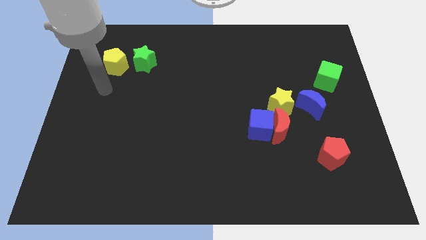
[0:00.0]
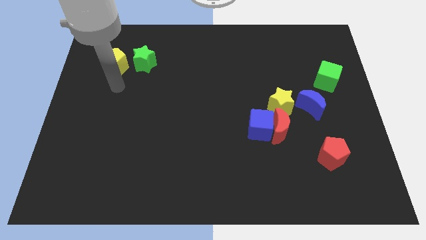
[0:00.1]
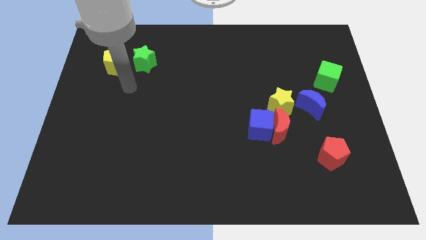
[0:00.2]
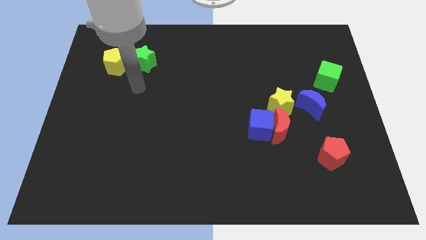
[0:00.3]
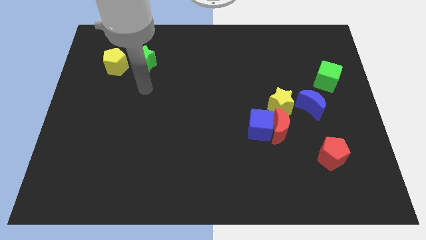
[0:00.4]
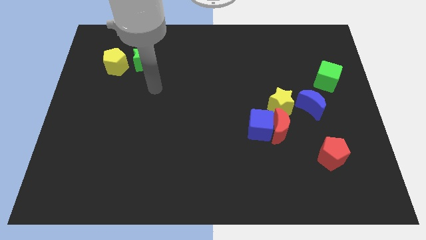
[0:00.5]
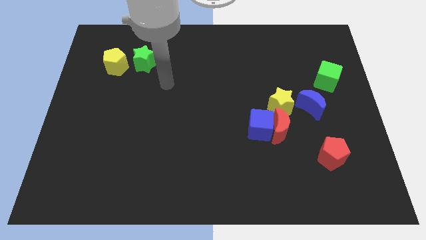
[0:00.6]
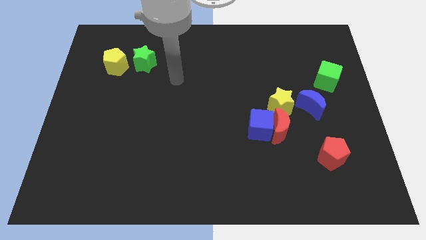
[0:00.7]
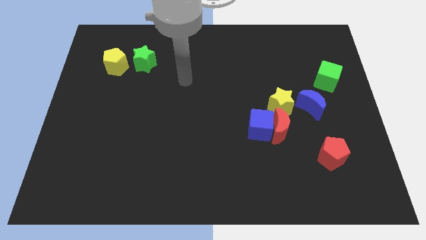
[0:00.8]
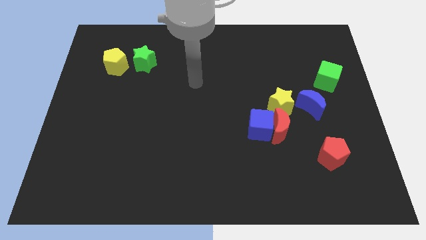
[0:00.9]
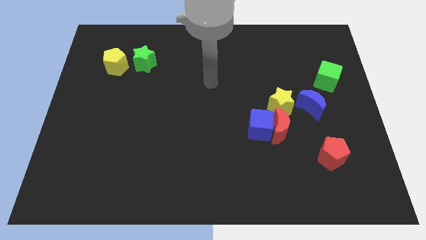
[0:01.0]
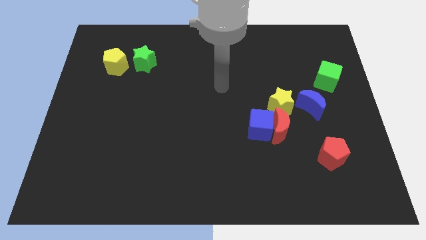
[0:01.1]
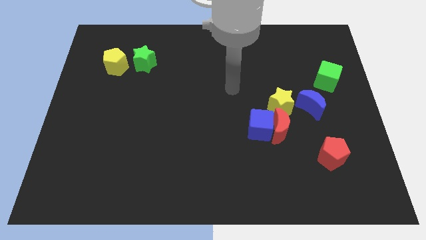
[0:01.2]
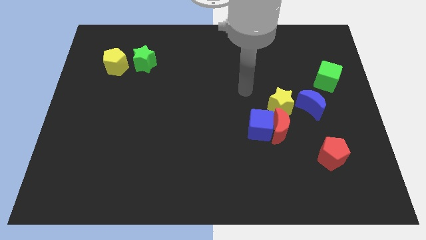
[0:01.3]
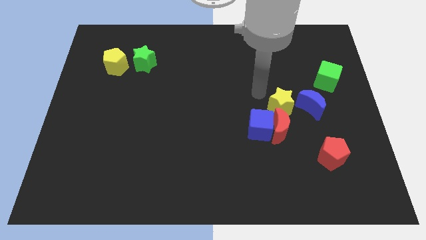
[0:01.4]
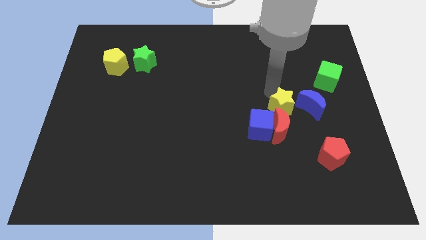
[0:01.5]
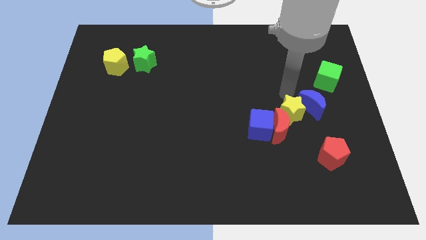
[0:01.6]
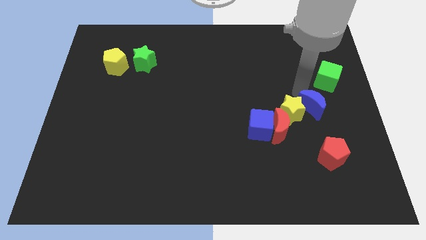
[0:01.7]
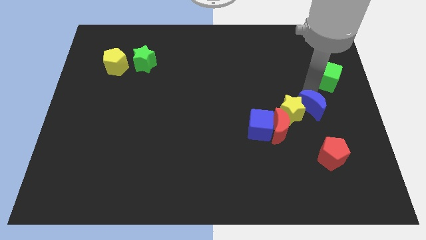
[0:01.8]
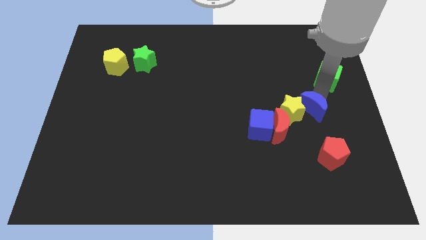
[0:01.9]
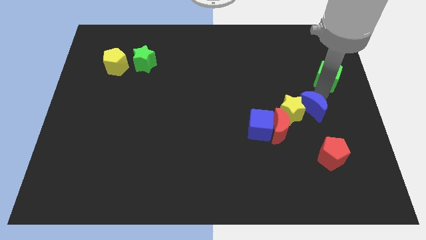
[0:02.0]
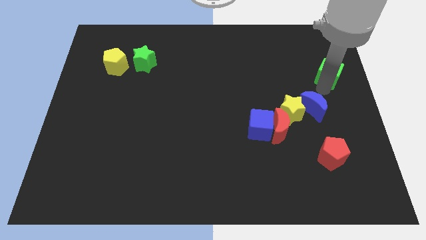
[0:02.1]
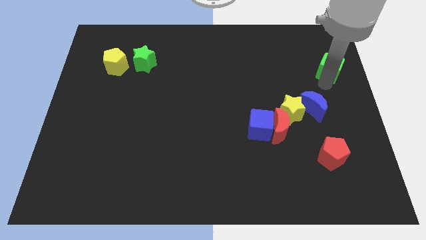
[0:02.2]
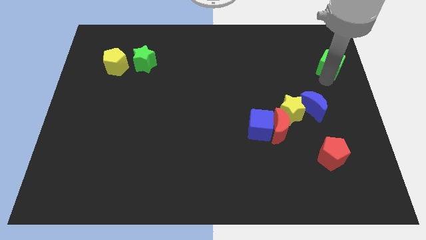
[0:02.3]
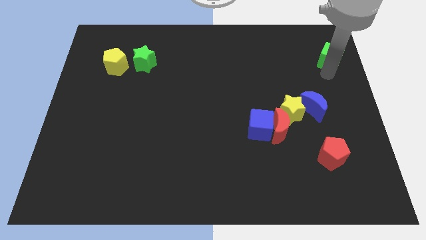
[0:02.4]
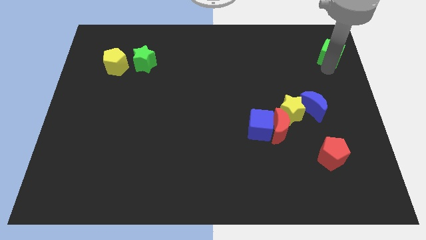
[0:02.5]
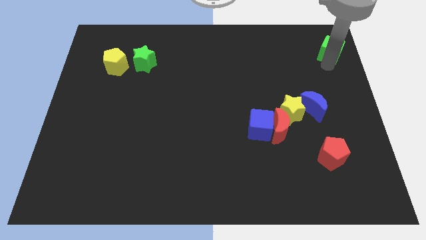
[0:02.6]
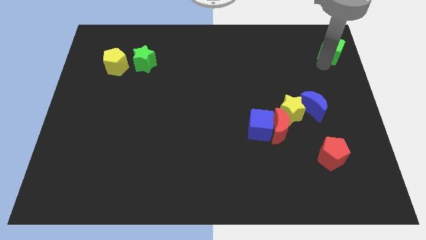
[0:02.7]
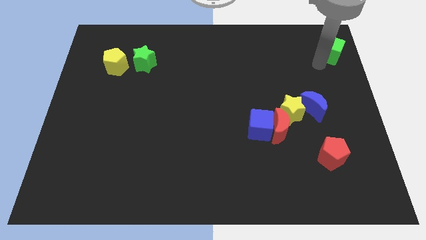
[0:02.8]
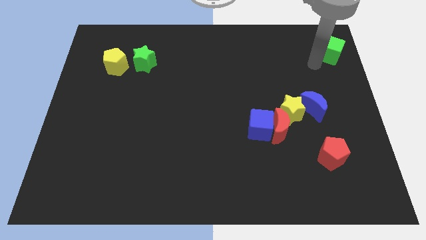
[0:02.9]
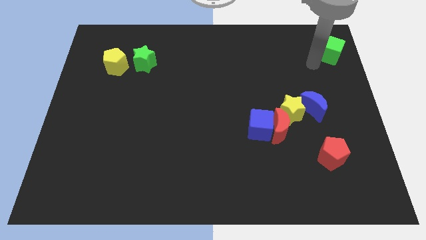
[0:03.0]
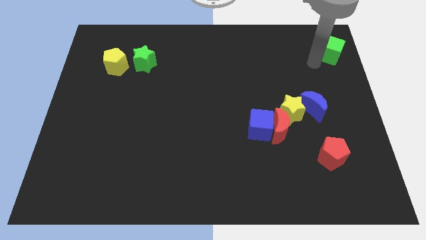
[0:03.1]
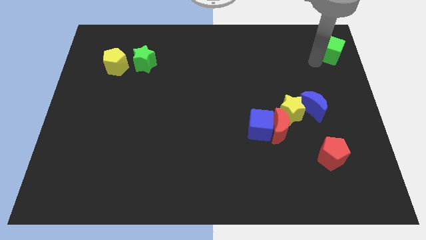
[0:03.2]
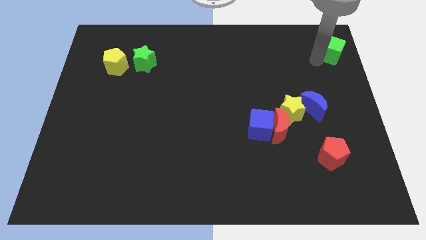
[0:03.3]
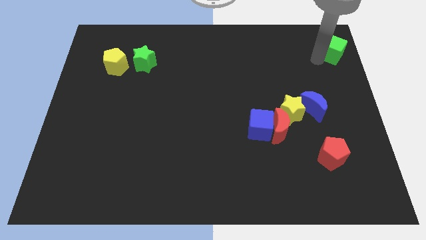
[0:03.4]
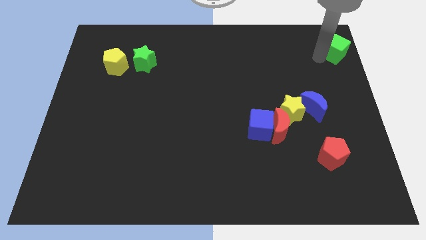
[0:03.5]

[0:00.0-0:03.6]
move the green cube to the top right corner

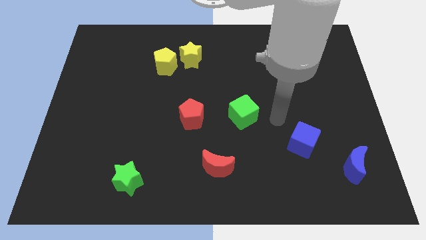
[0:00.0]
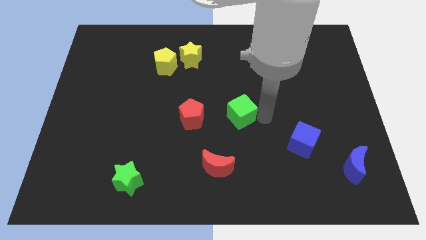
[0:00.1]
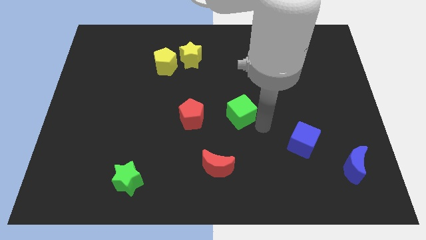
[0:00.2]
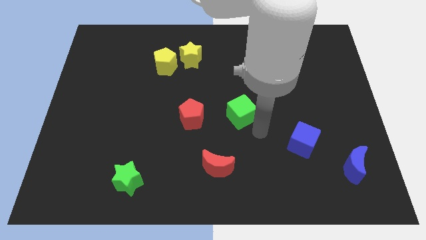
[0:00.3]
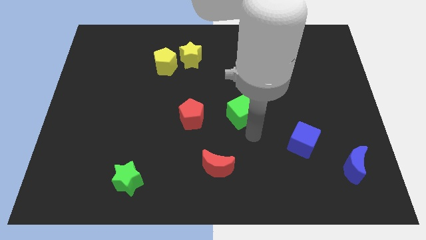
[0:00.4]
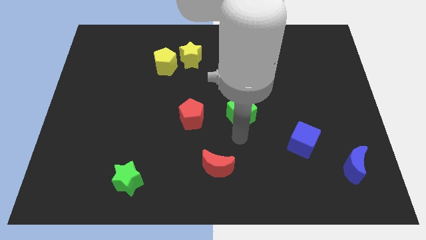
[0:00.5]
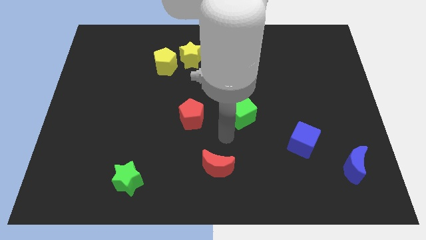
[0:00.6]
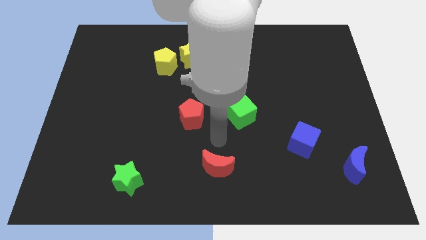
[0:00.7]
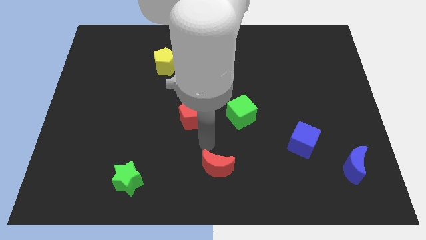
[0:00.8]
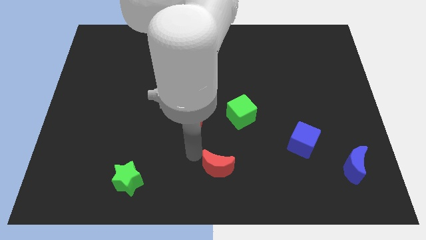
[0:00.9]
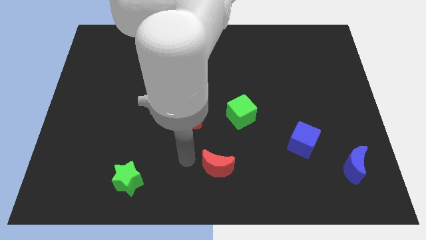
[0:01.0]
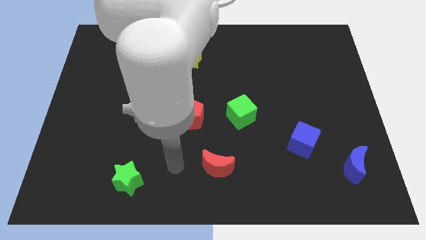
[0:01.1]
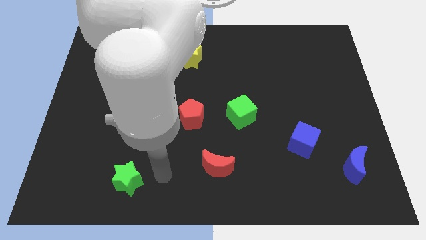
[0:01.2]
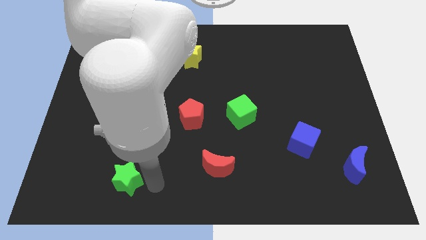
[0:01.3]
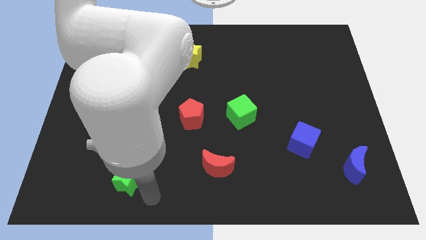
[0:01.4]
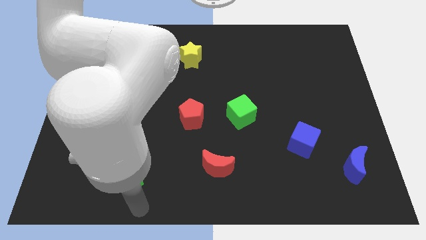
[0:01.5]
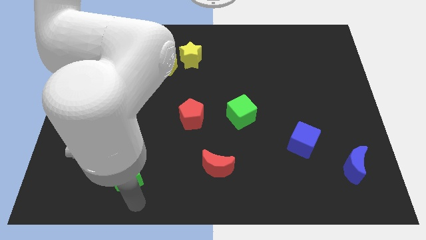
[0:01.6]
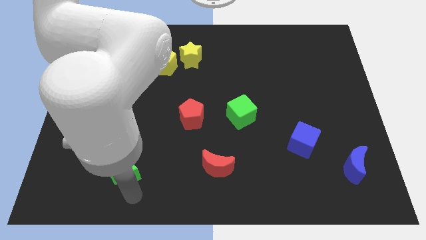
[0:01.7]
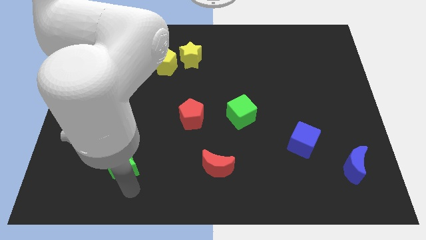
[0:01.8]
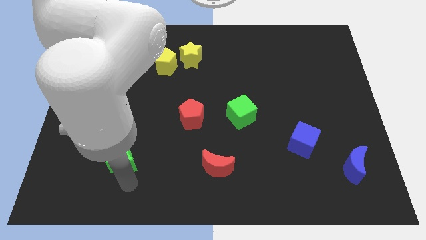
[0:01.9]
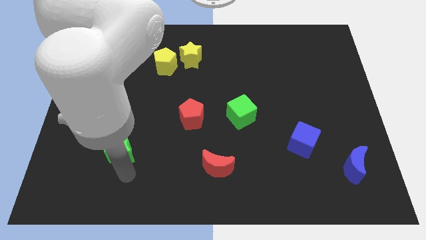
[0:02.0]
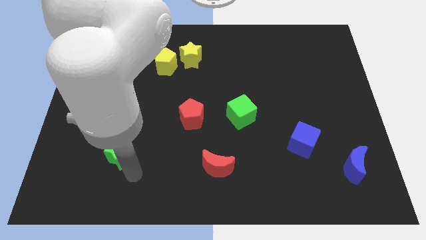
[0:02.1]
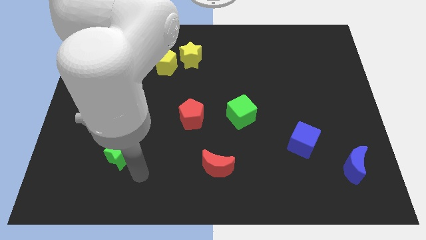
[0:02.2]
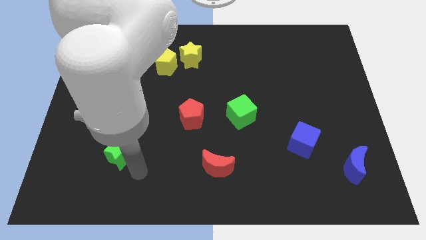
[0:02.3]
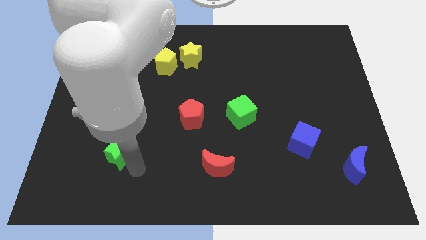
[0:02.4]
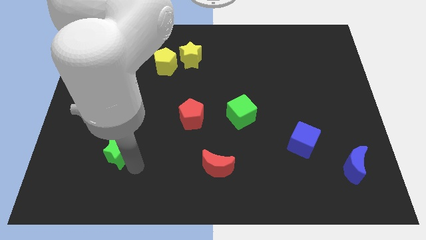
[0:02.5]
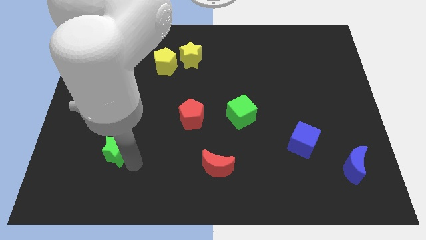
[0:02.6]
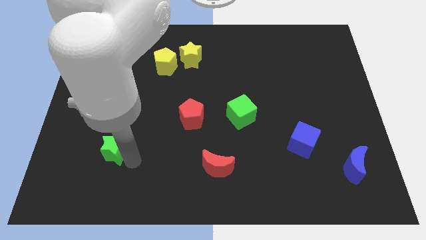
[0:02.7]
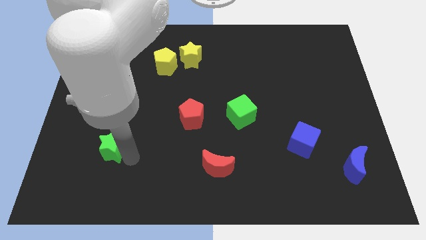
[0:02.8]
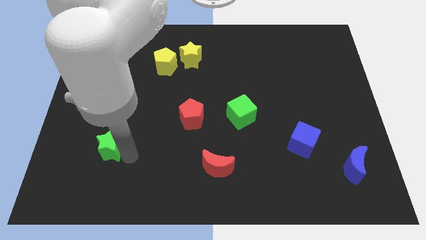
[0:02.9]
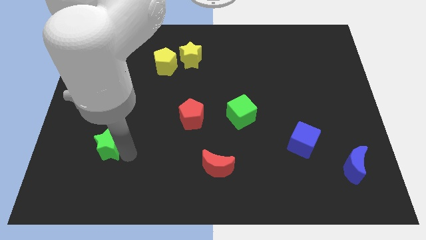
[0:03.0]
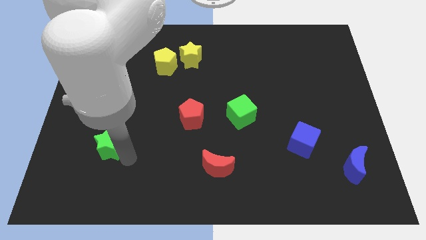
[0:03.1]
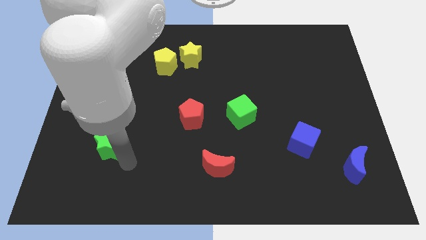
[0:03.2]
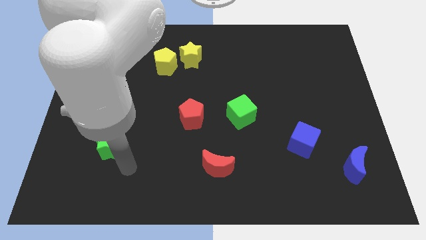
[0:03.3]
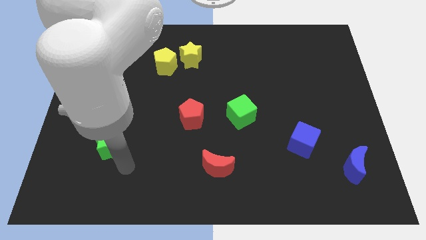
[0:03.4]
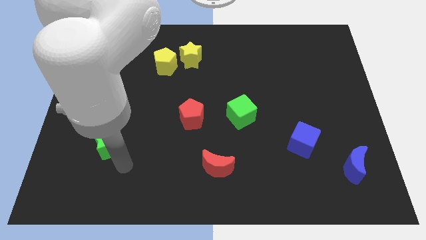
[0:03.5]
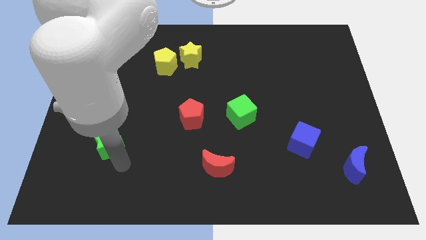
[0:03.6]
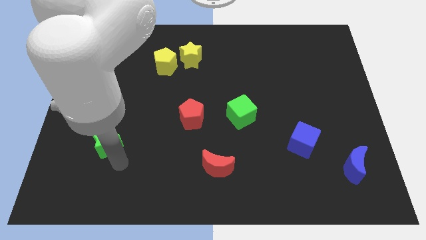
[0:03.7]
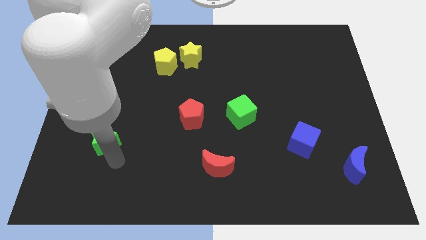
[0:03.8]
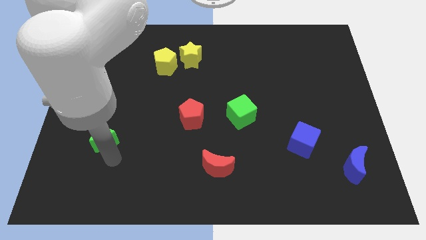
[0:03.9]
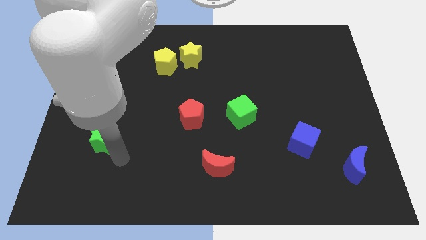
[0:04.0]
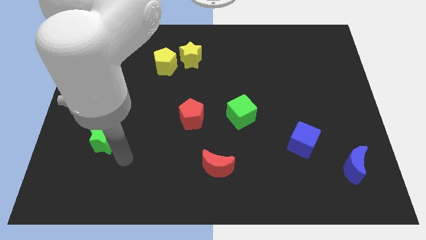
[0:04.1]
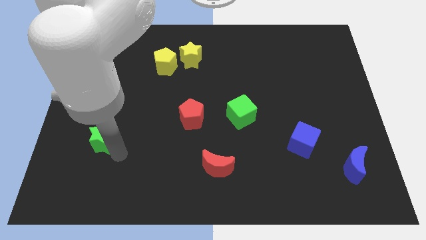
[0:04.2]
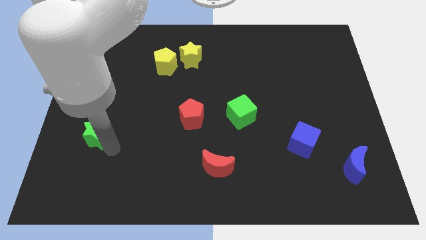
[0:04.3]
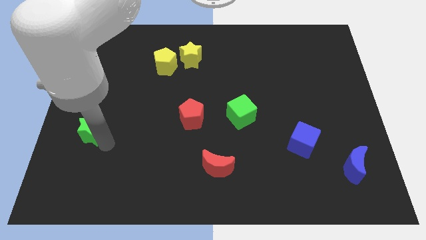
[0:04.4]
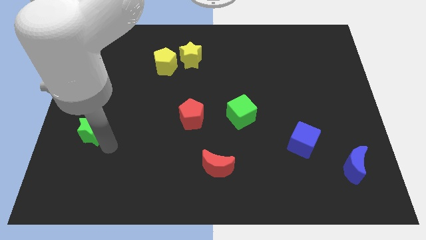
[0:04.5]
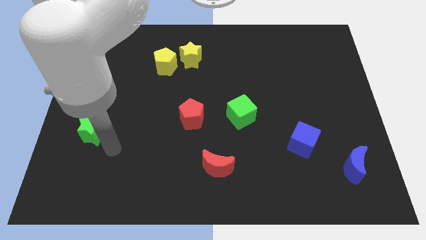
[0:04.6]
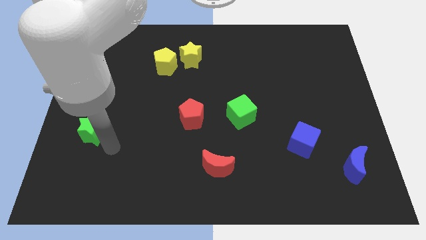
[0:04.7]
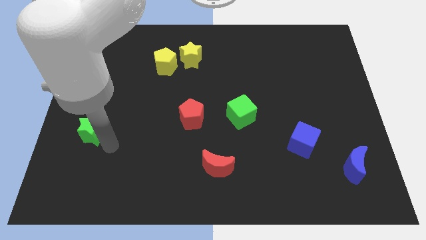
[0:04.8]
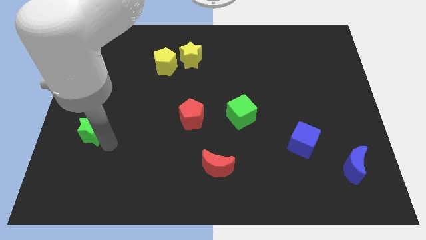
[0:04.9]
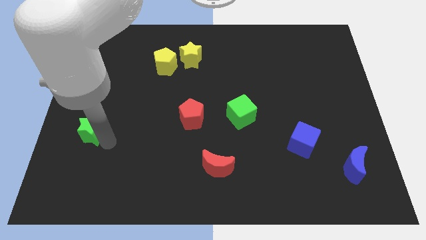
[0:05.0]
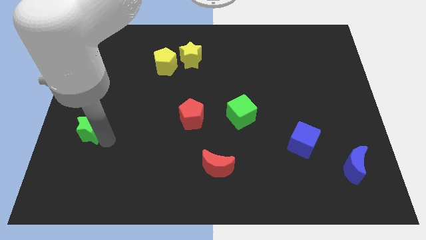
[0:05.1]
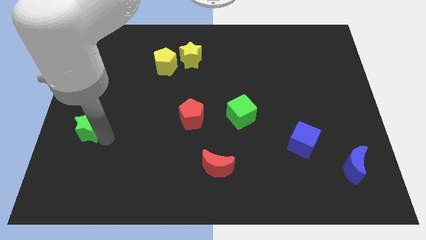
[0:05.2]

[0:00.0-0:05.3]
move the green star to the left side
